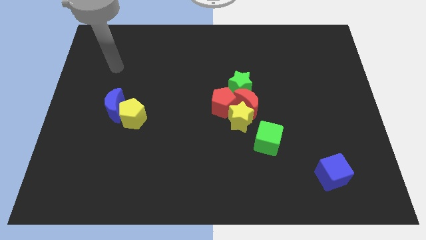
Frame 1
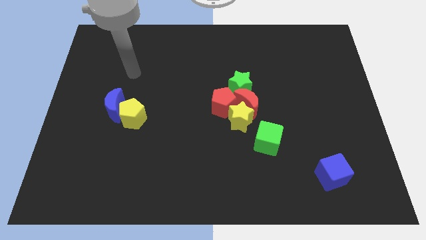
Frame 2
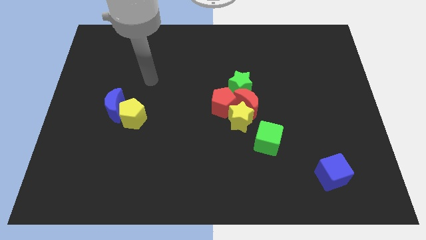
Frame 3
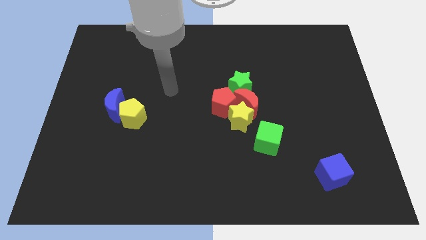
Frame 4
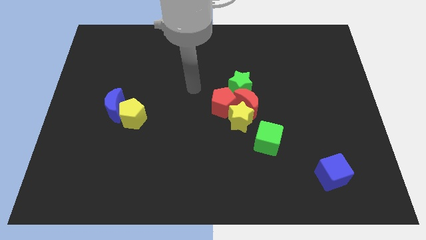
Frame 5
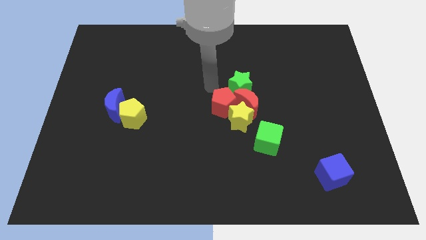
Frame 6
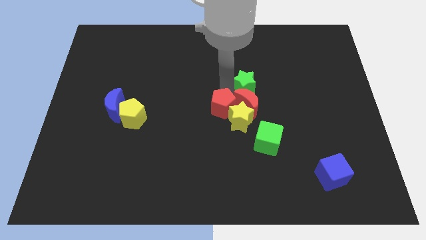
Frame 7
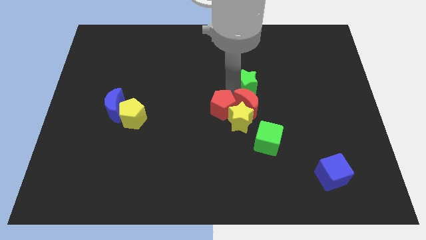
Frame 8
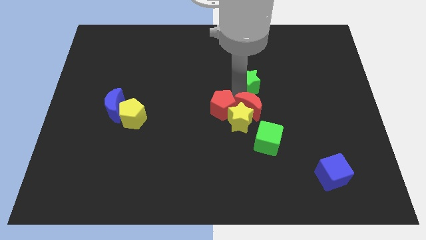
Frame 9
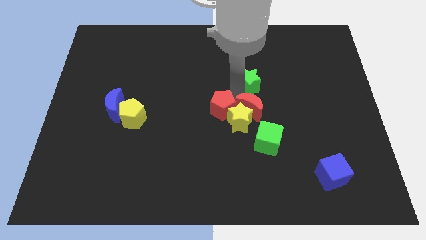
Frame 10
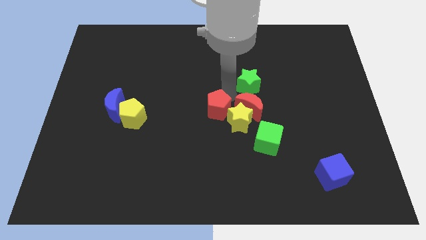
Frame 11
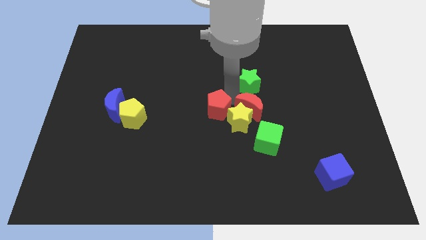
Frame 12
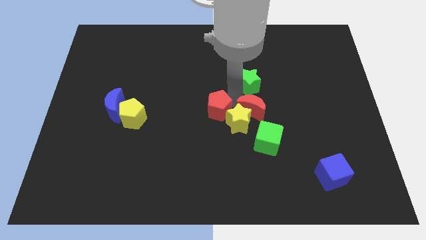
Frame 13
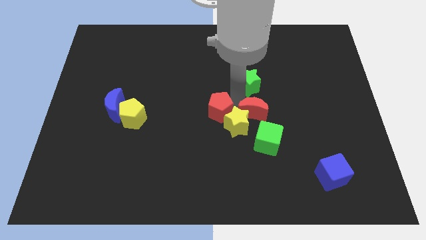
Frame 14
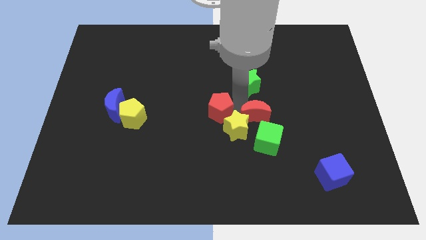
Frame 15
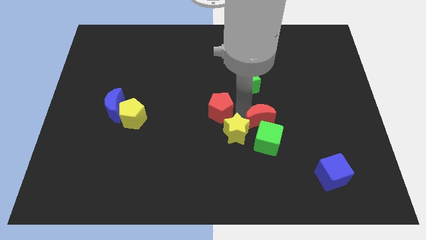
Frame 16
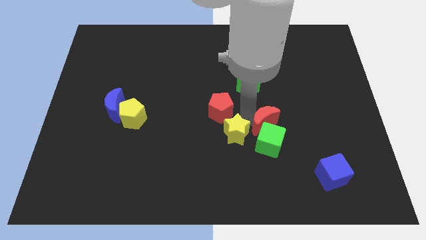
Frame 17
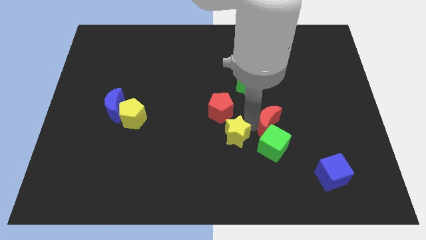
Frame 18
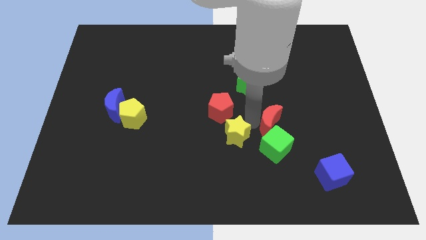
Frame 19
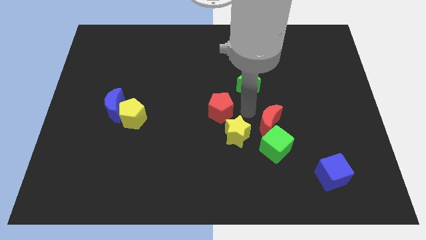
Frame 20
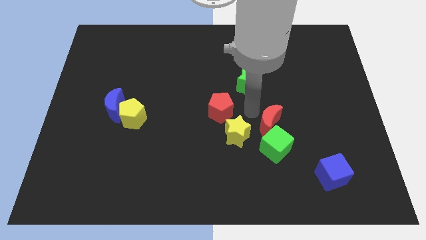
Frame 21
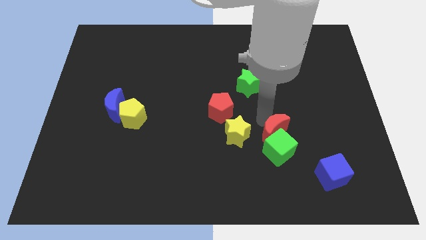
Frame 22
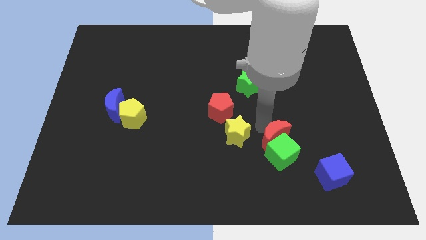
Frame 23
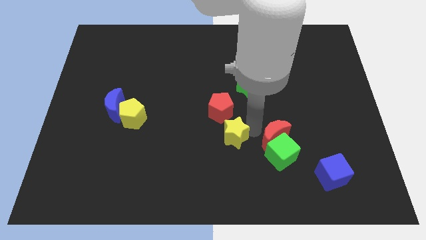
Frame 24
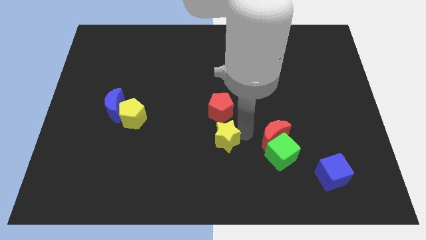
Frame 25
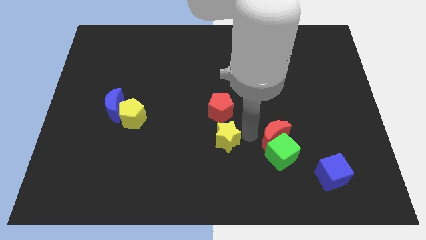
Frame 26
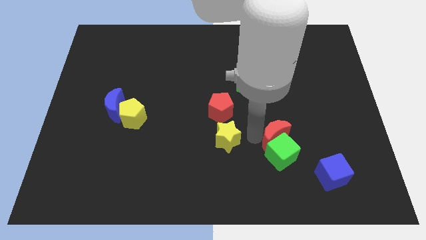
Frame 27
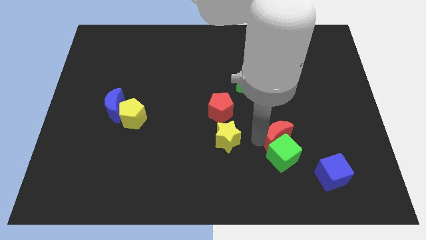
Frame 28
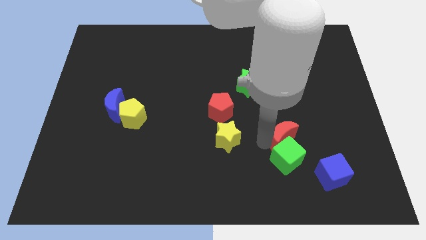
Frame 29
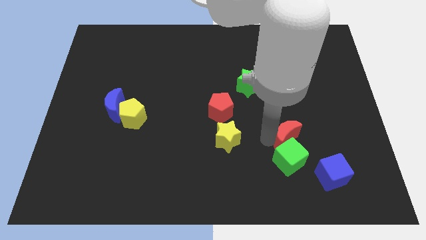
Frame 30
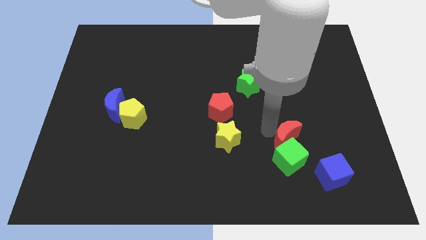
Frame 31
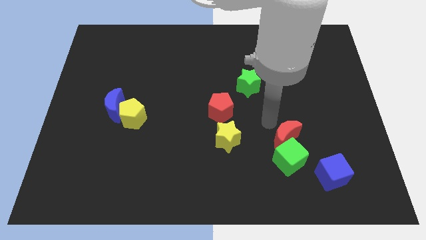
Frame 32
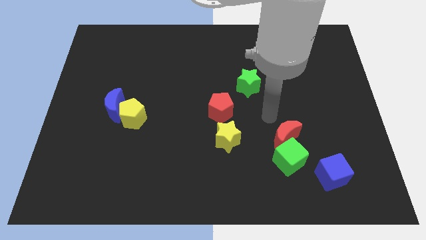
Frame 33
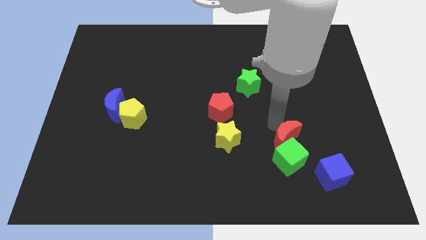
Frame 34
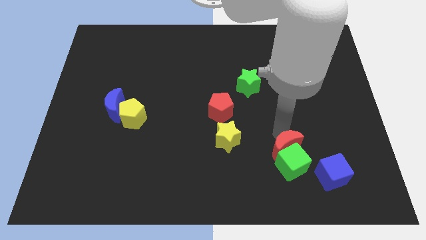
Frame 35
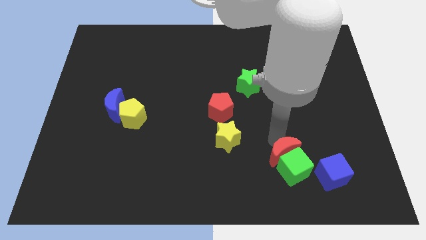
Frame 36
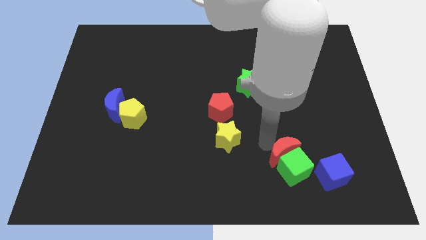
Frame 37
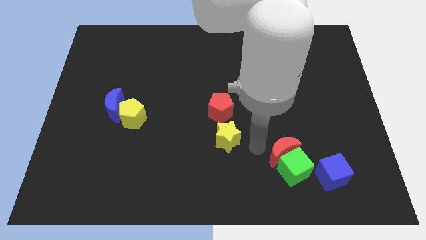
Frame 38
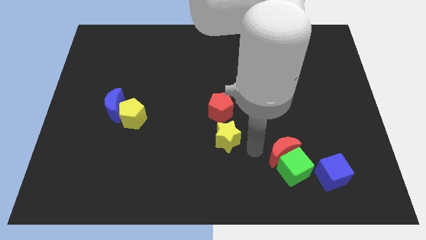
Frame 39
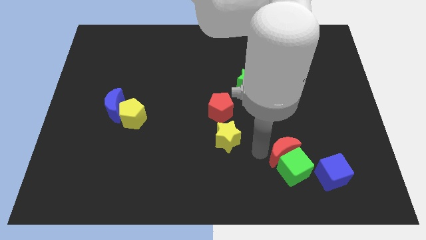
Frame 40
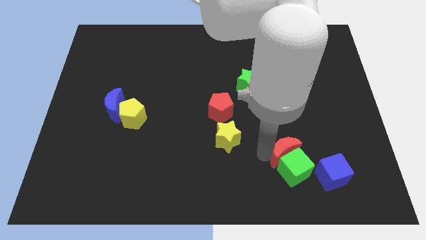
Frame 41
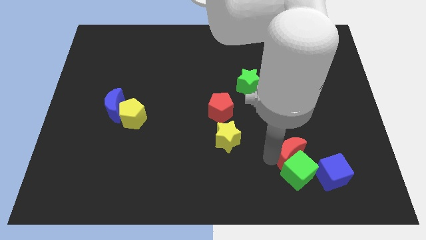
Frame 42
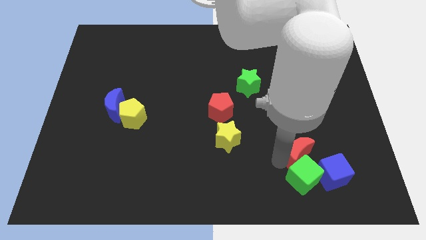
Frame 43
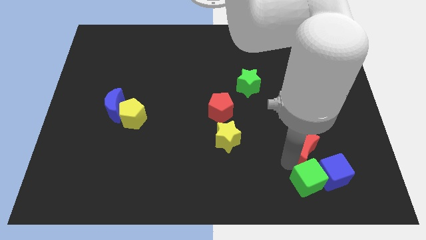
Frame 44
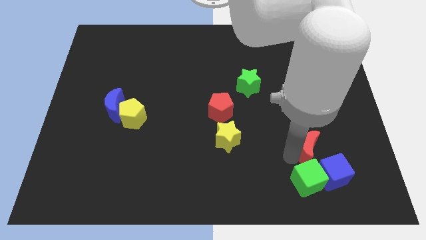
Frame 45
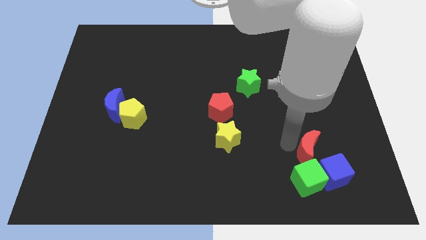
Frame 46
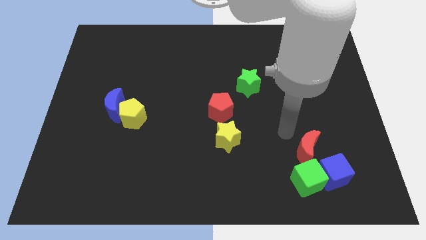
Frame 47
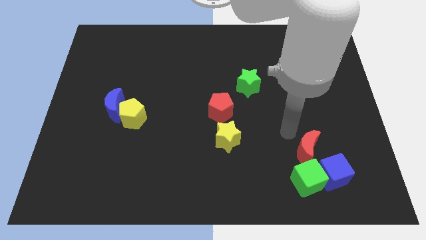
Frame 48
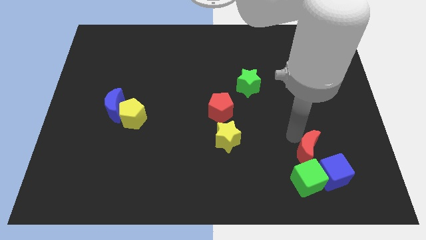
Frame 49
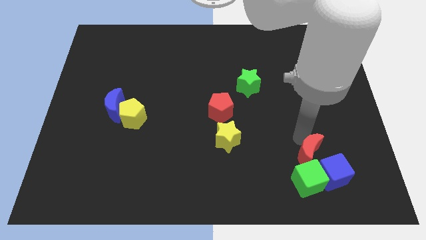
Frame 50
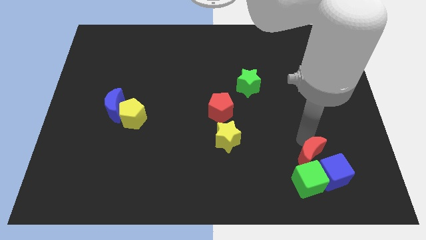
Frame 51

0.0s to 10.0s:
slide the red moon next to the blue cube

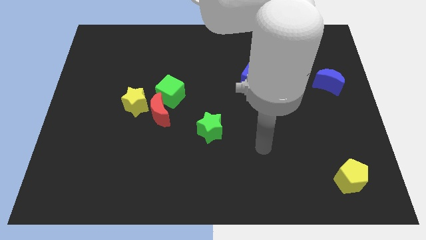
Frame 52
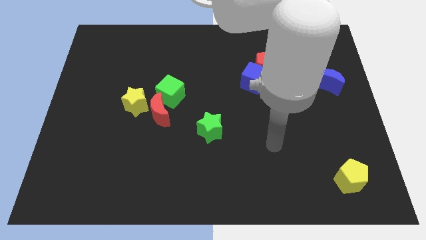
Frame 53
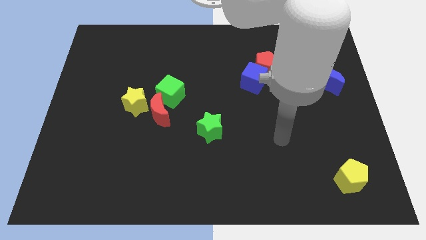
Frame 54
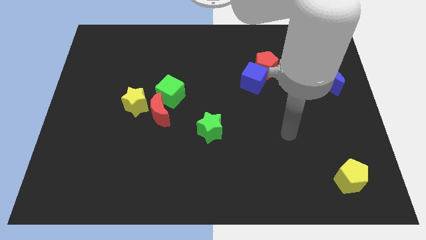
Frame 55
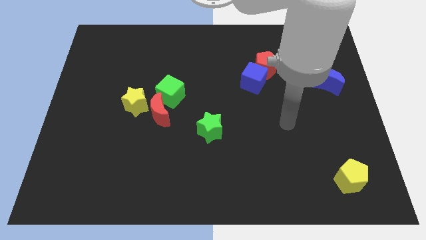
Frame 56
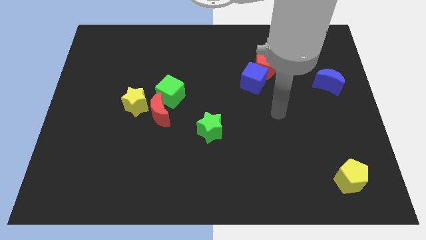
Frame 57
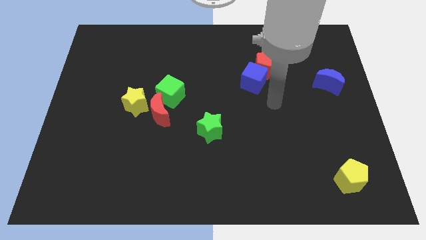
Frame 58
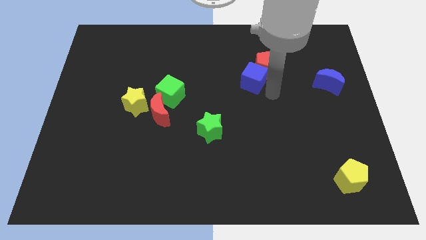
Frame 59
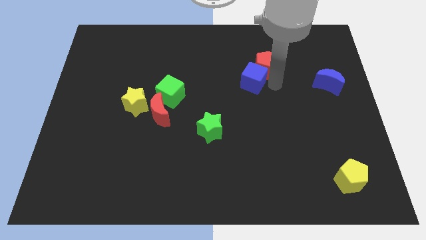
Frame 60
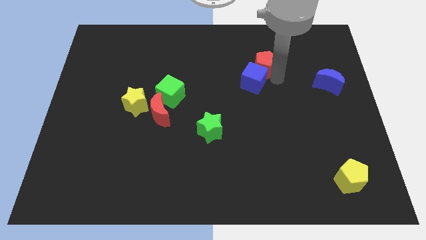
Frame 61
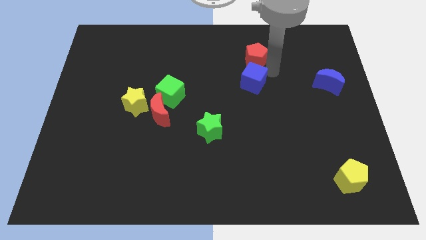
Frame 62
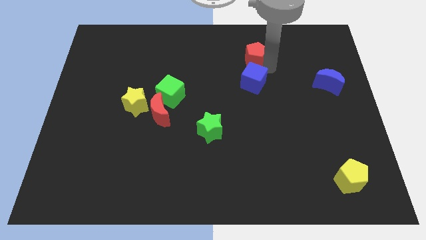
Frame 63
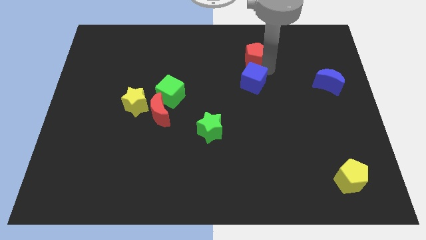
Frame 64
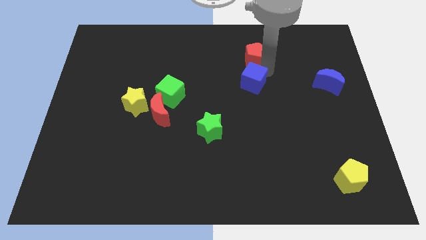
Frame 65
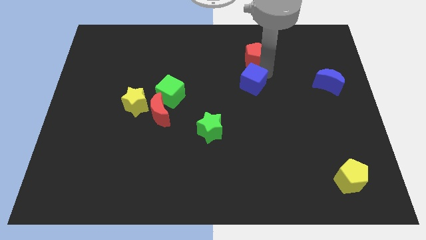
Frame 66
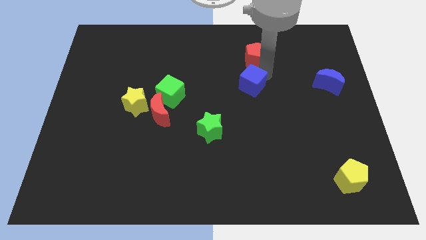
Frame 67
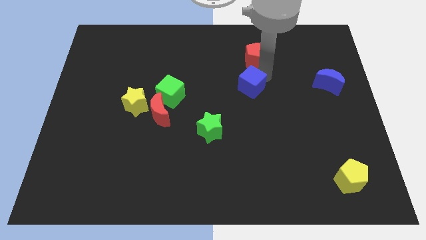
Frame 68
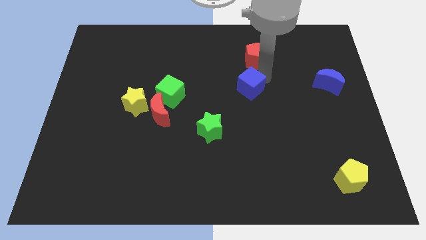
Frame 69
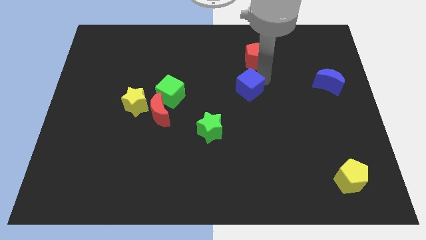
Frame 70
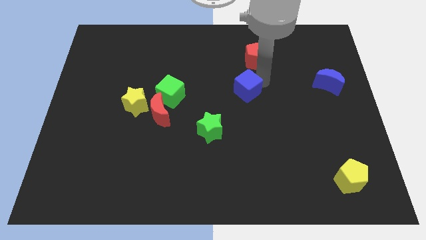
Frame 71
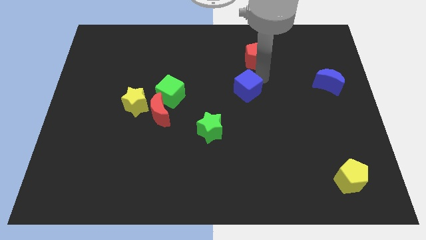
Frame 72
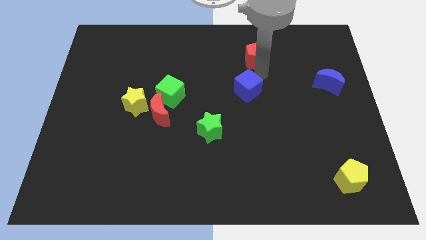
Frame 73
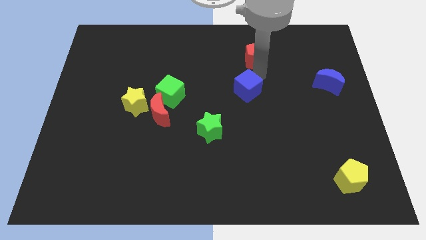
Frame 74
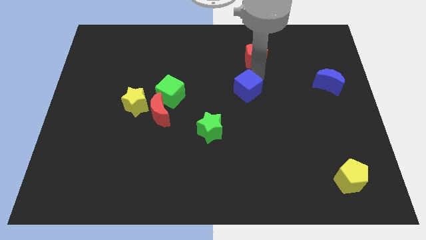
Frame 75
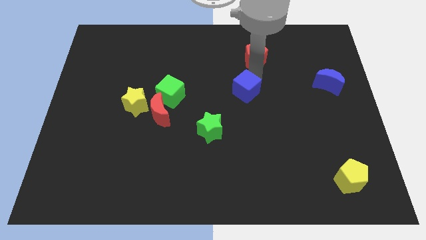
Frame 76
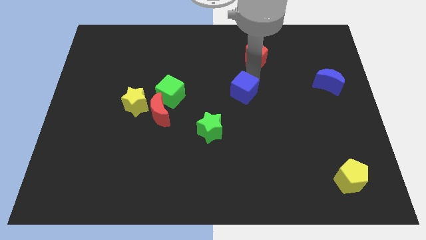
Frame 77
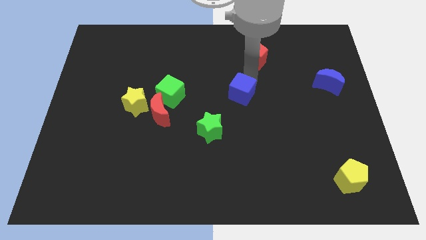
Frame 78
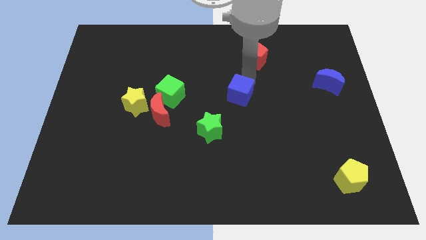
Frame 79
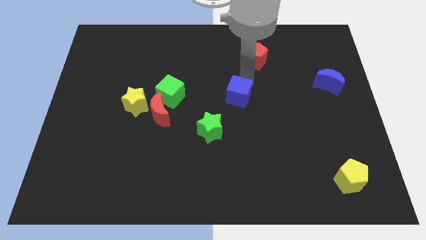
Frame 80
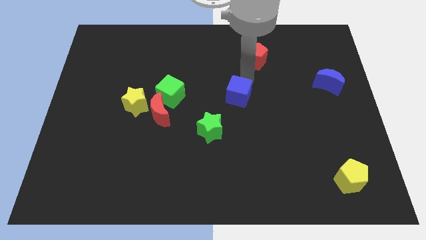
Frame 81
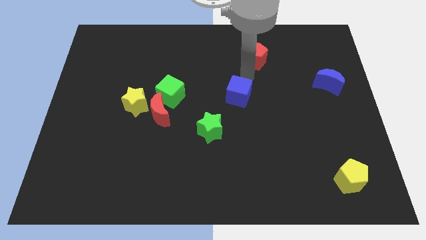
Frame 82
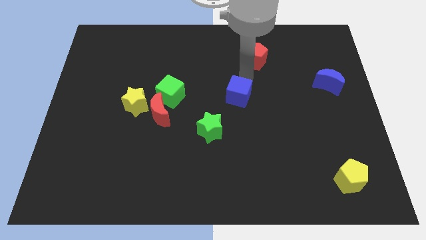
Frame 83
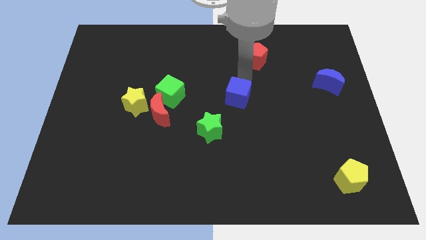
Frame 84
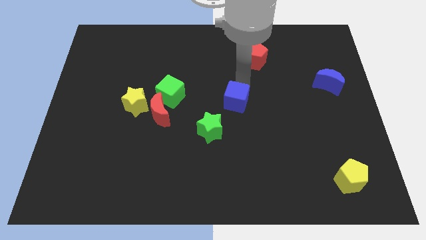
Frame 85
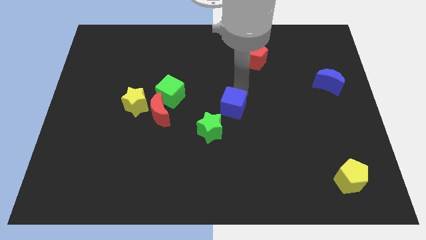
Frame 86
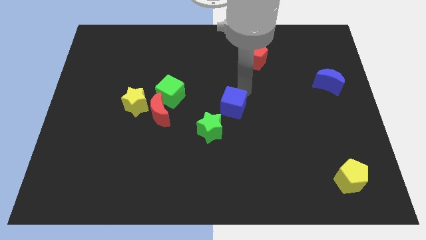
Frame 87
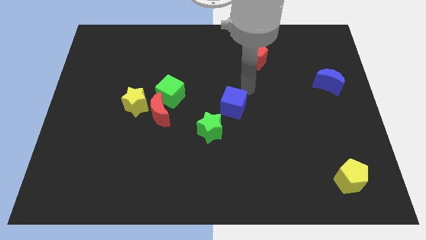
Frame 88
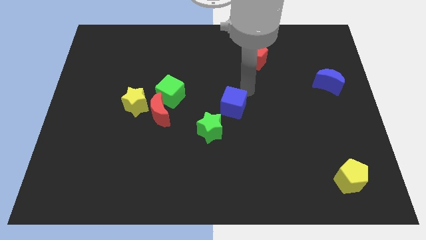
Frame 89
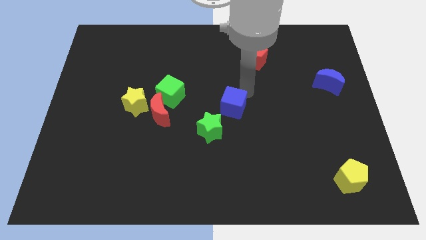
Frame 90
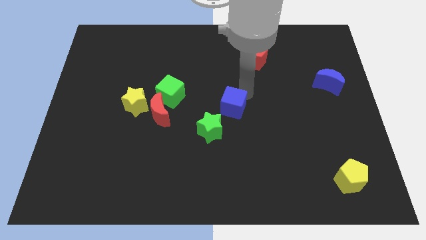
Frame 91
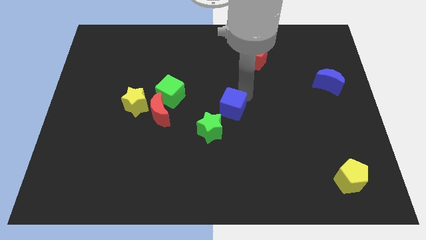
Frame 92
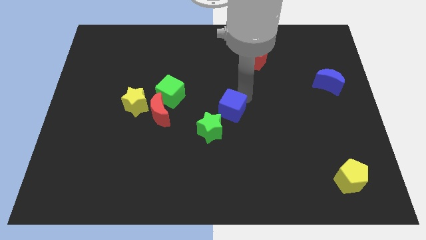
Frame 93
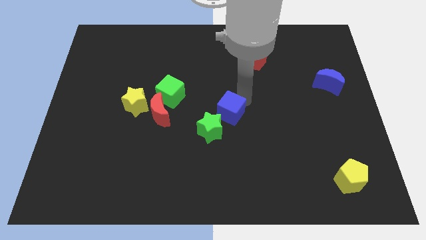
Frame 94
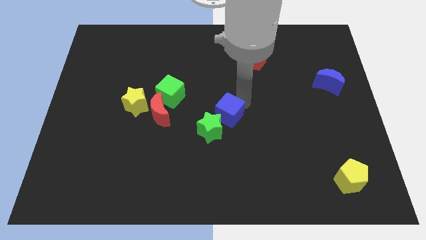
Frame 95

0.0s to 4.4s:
push the blue cube to the green star
